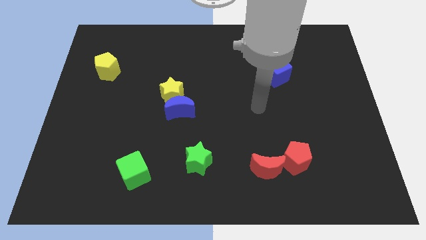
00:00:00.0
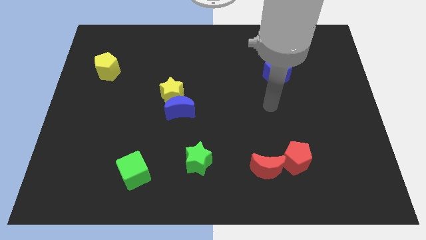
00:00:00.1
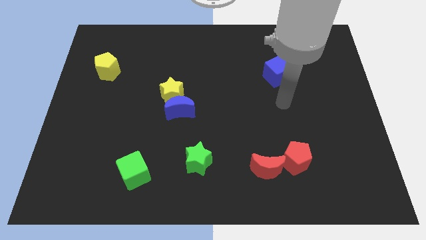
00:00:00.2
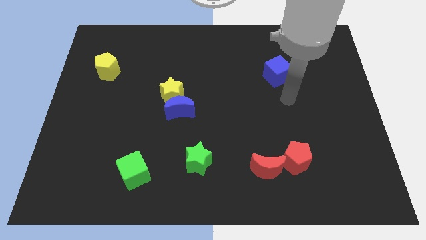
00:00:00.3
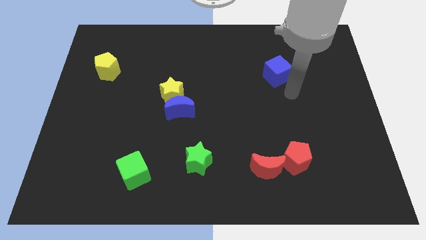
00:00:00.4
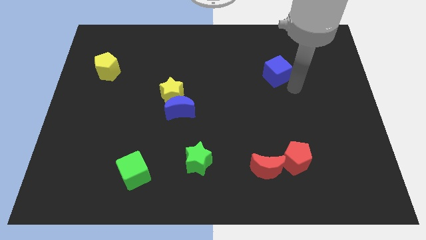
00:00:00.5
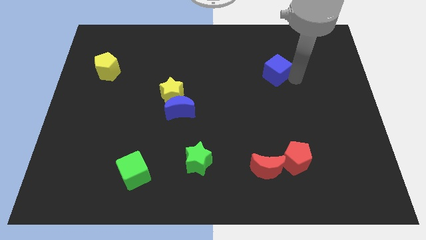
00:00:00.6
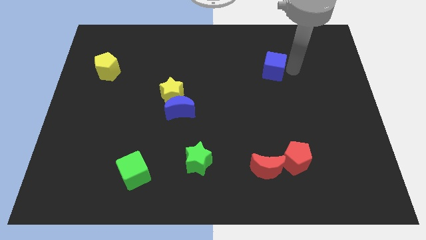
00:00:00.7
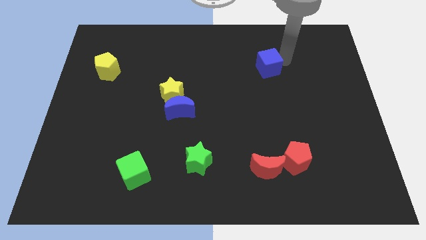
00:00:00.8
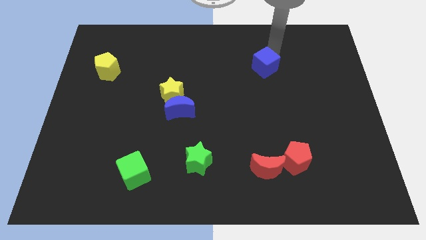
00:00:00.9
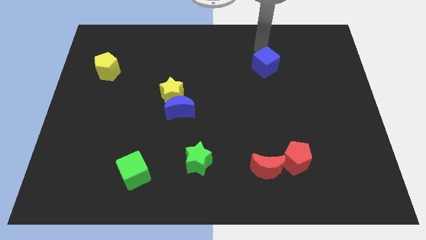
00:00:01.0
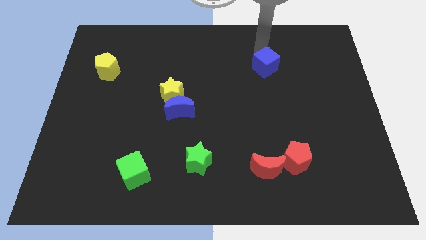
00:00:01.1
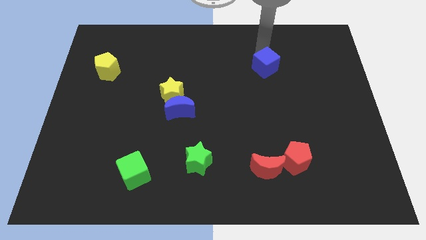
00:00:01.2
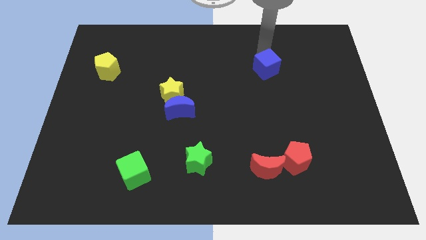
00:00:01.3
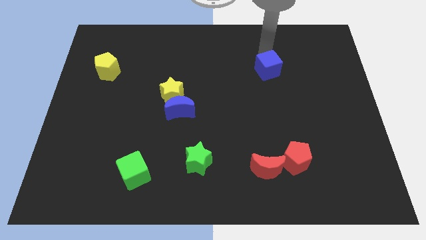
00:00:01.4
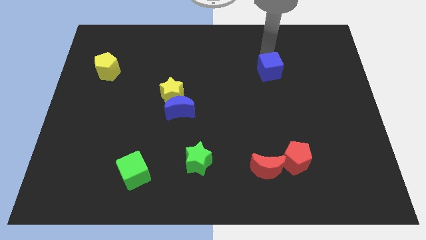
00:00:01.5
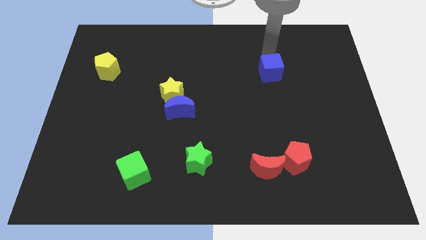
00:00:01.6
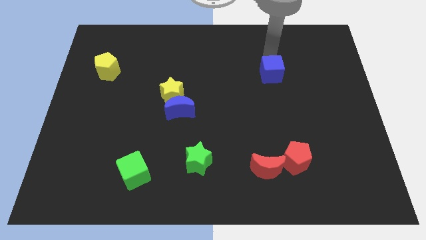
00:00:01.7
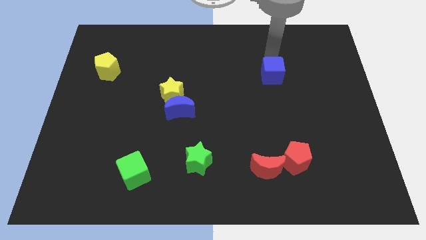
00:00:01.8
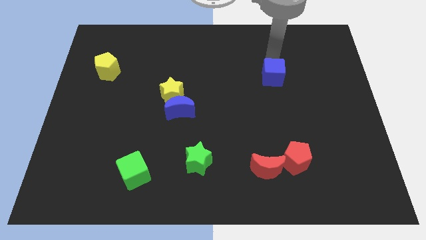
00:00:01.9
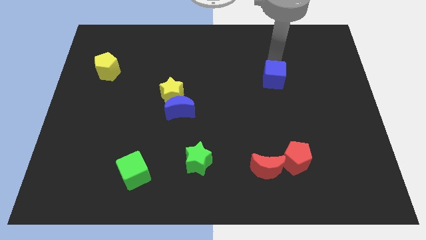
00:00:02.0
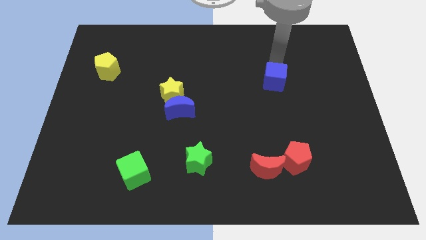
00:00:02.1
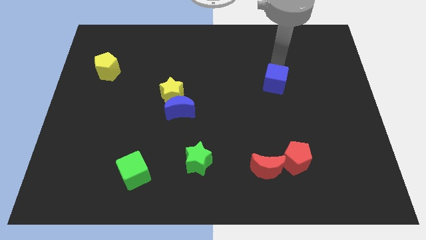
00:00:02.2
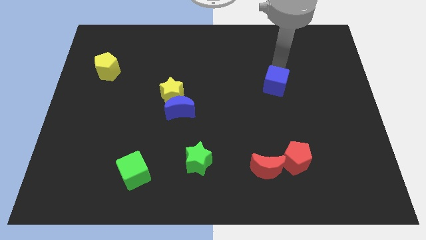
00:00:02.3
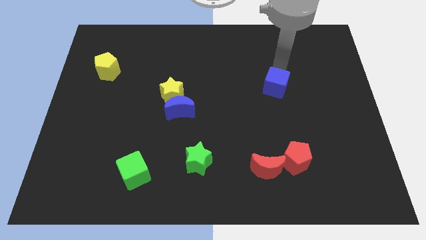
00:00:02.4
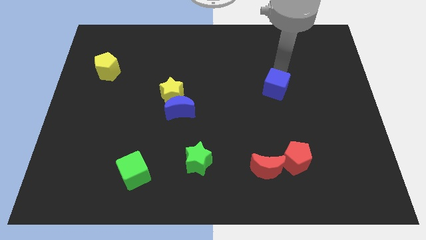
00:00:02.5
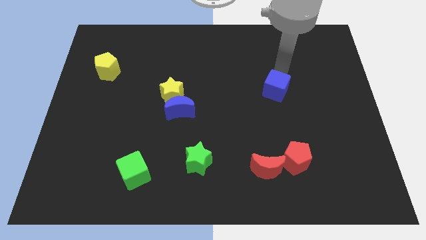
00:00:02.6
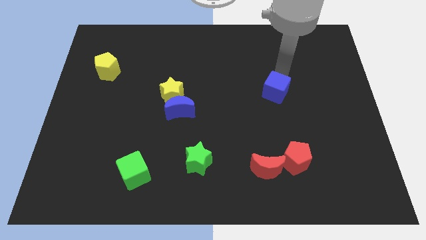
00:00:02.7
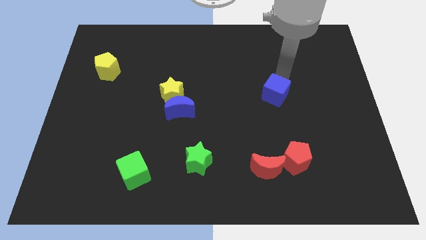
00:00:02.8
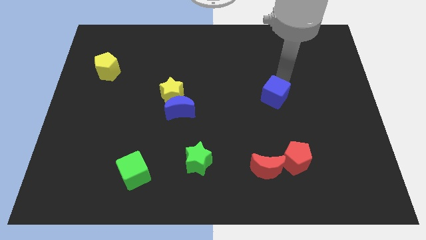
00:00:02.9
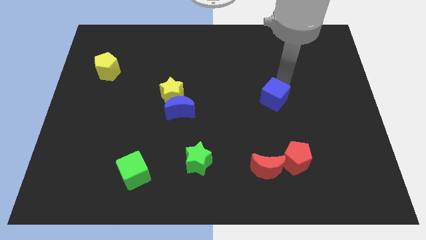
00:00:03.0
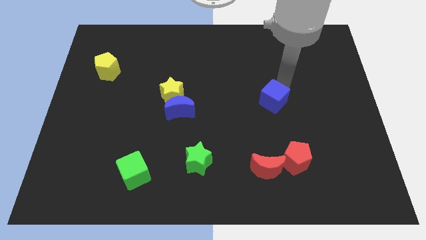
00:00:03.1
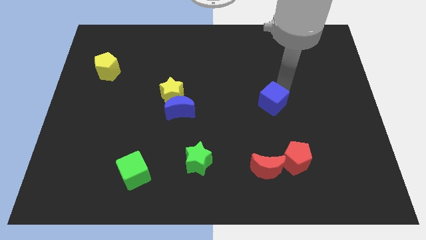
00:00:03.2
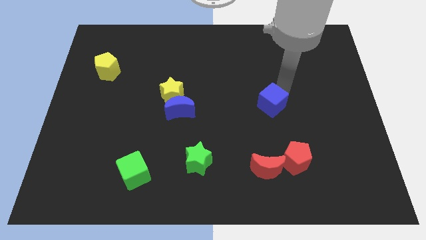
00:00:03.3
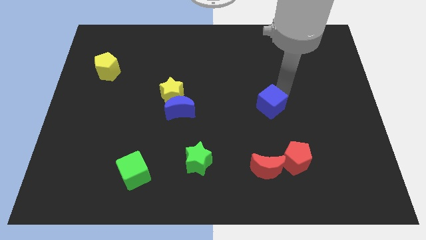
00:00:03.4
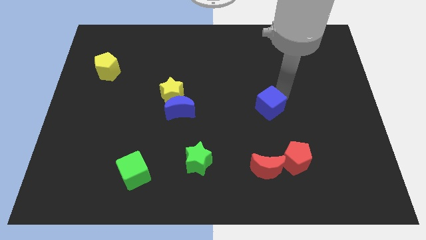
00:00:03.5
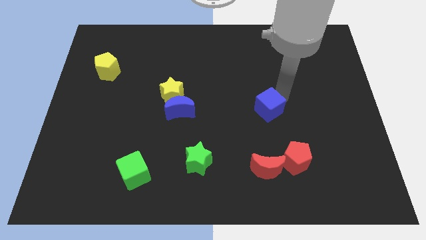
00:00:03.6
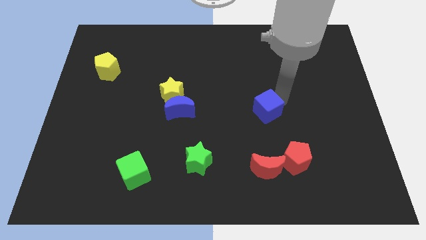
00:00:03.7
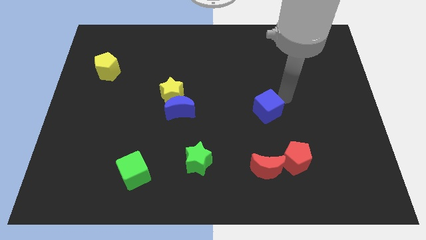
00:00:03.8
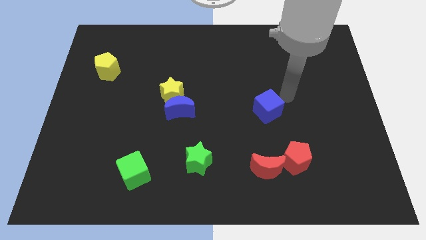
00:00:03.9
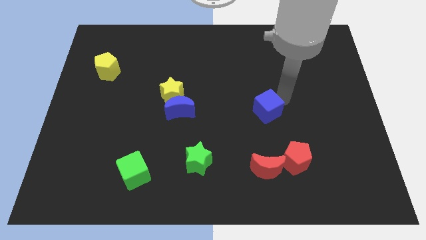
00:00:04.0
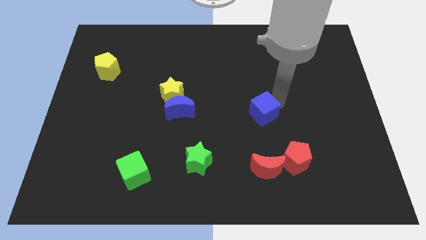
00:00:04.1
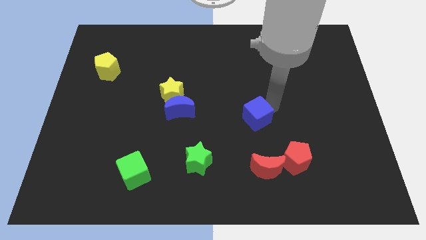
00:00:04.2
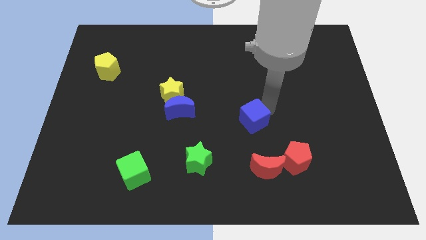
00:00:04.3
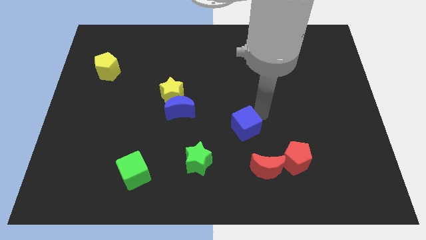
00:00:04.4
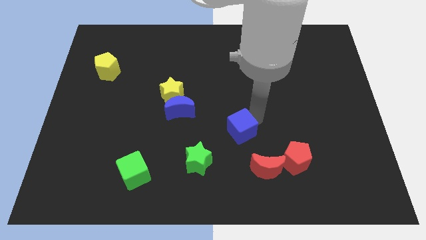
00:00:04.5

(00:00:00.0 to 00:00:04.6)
move the blue cube to the top right side of the green star

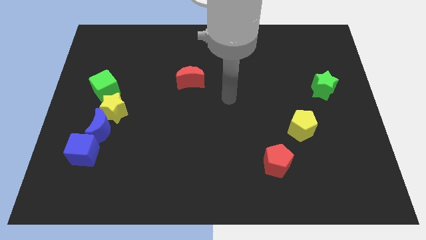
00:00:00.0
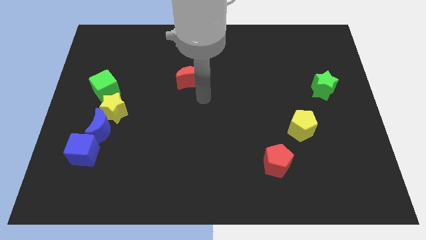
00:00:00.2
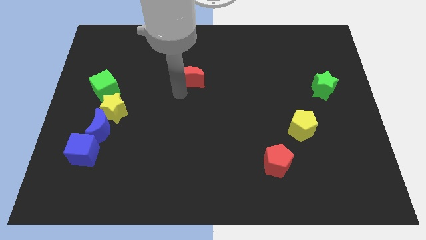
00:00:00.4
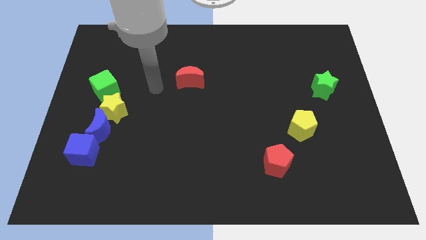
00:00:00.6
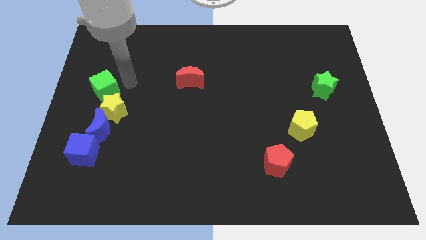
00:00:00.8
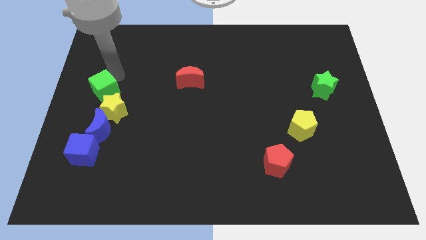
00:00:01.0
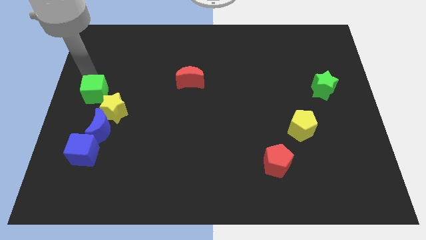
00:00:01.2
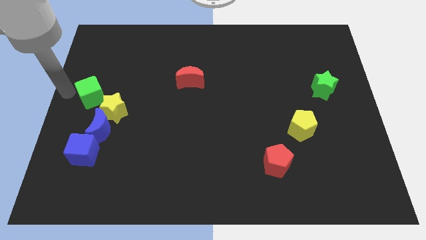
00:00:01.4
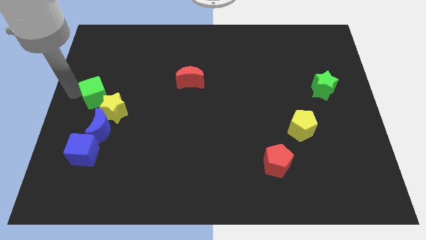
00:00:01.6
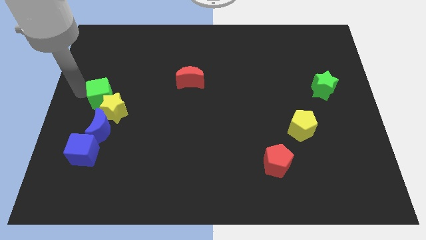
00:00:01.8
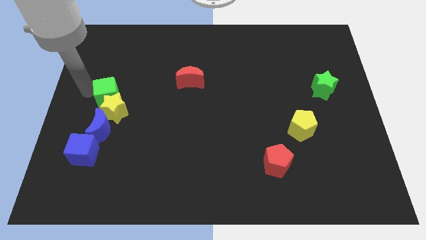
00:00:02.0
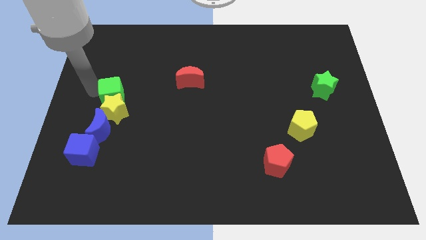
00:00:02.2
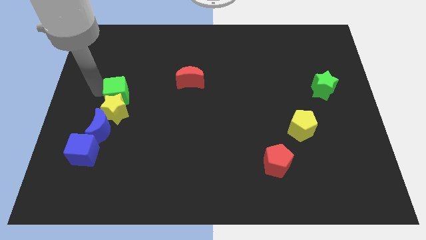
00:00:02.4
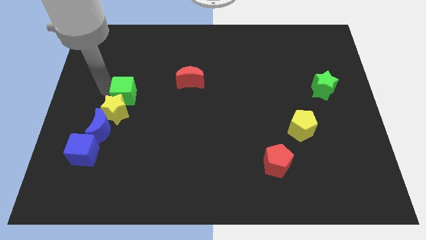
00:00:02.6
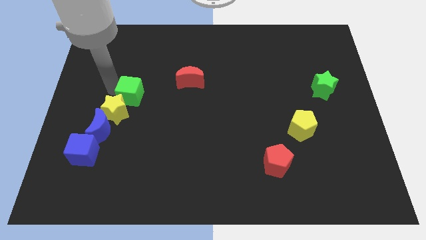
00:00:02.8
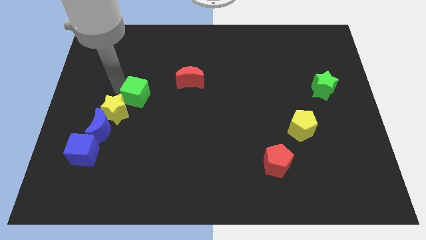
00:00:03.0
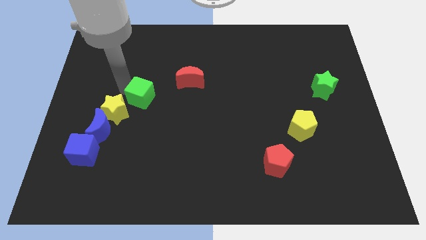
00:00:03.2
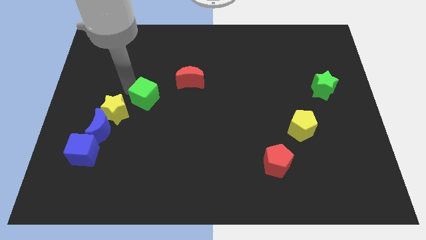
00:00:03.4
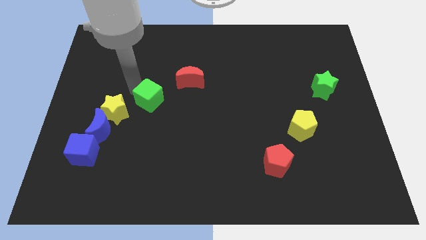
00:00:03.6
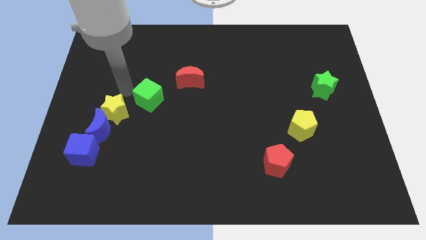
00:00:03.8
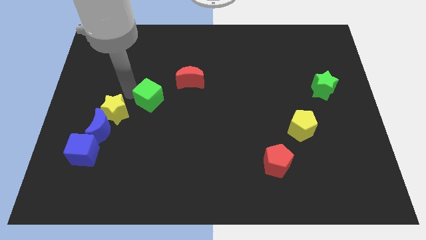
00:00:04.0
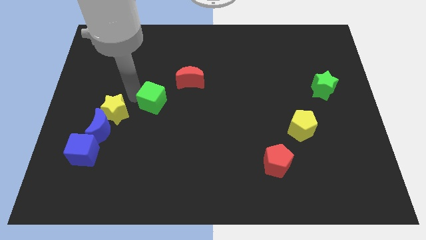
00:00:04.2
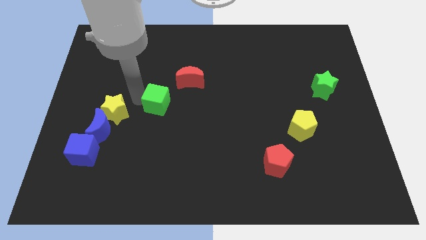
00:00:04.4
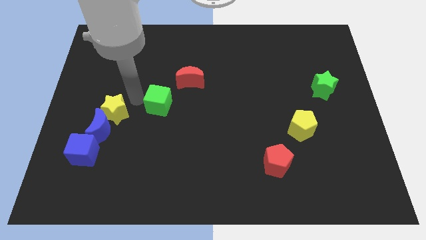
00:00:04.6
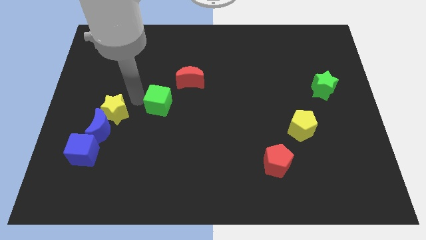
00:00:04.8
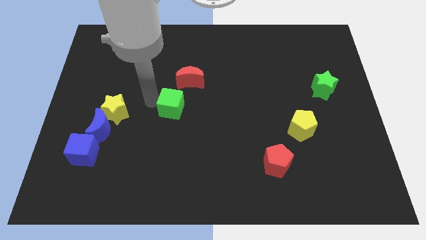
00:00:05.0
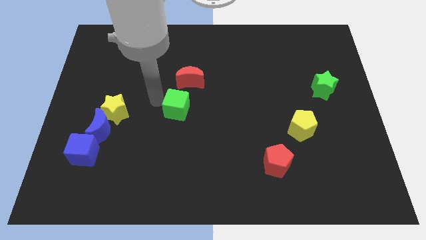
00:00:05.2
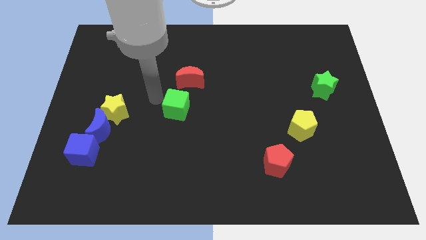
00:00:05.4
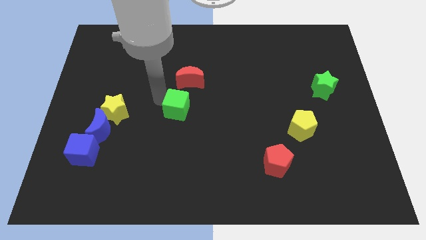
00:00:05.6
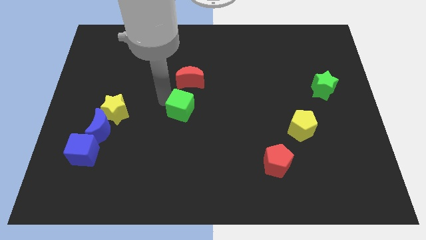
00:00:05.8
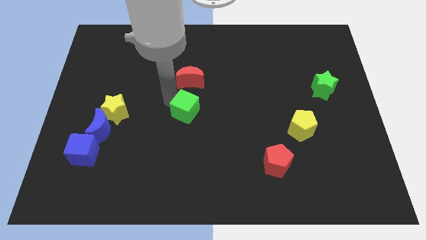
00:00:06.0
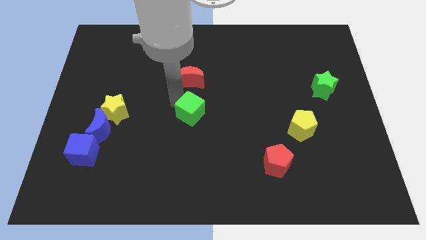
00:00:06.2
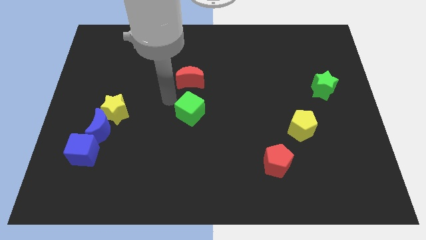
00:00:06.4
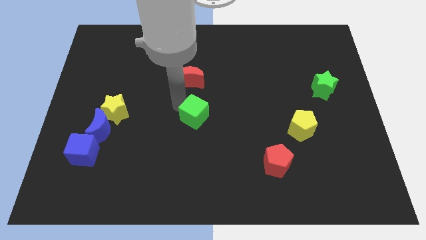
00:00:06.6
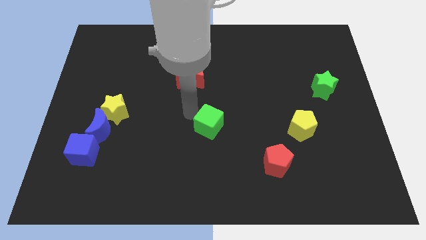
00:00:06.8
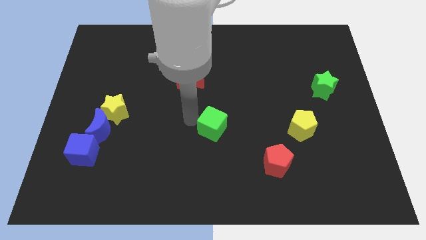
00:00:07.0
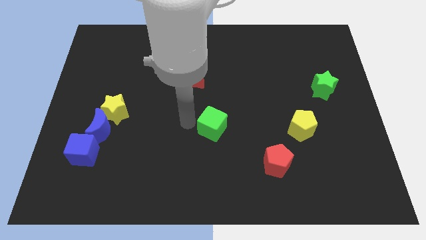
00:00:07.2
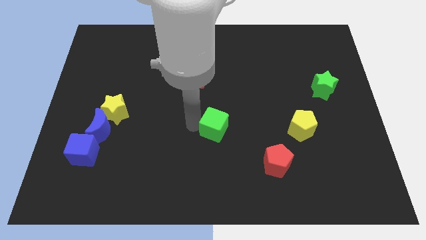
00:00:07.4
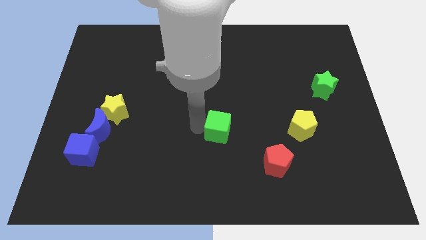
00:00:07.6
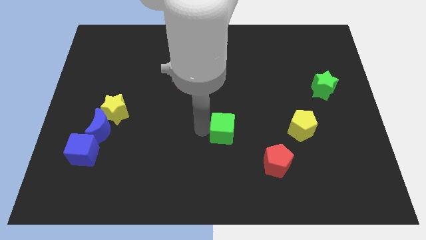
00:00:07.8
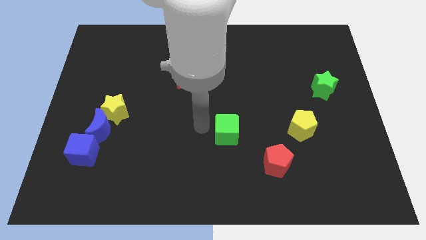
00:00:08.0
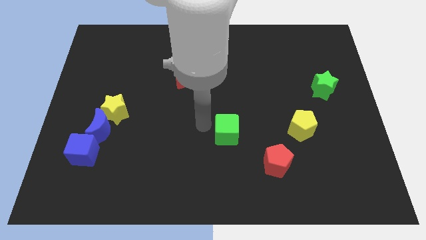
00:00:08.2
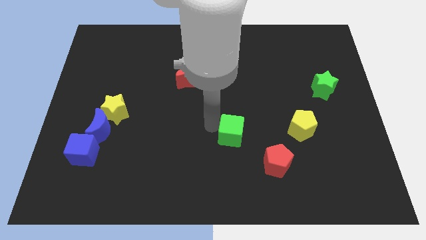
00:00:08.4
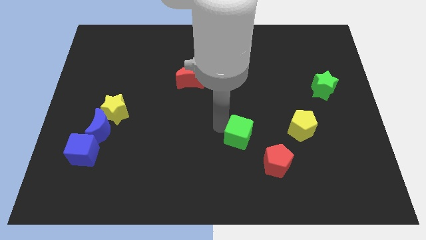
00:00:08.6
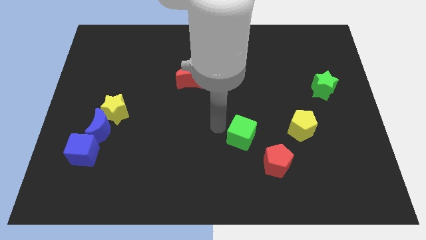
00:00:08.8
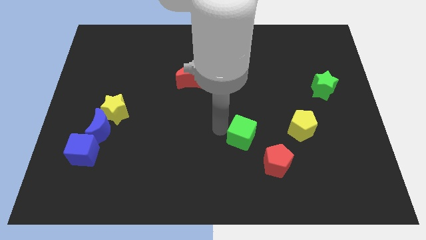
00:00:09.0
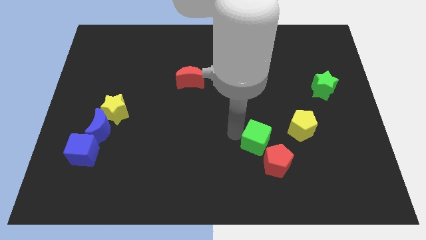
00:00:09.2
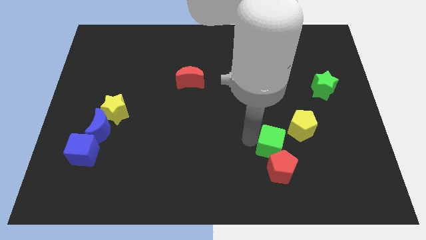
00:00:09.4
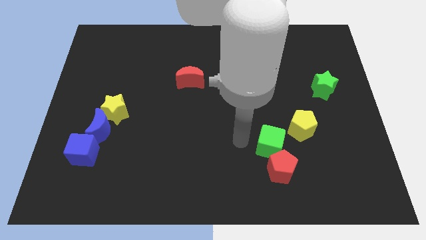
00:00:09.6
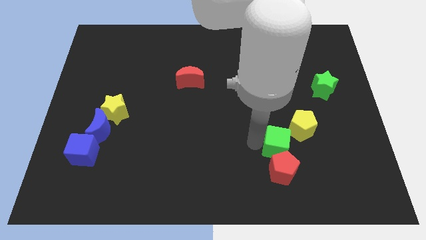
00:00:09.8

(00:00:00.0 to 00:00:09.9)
put the green cube diagonally up and to the right of the red pentagon
